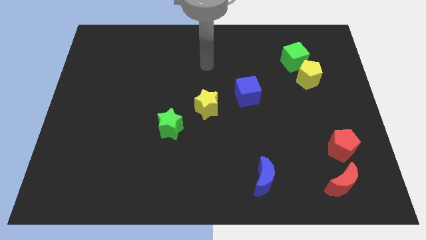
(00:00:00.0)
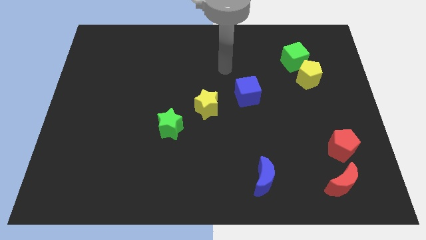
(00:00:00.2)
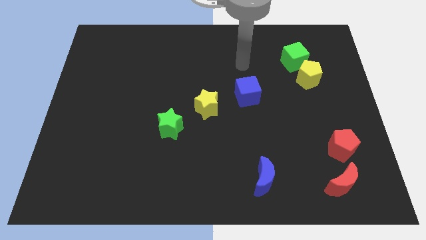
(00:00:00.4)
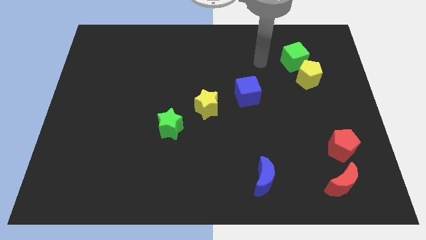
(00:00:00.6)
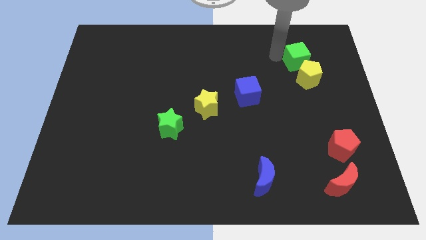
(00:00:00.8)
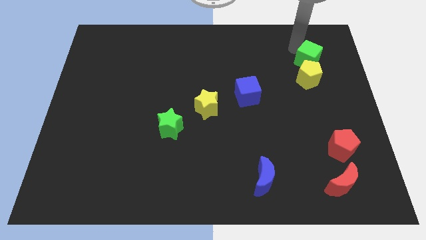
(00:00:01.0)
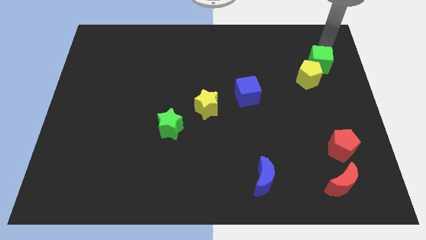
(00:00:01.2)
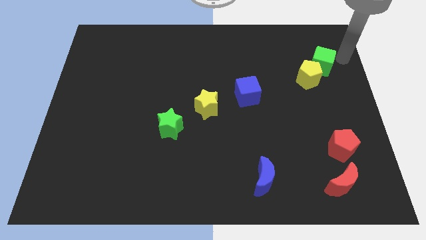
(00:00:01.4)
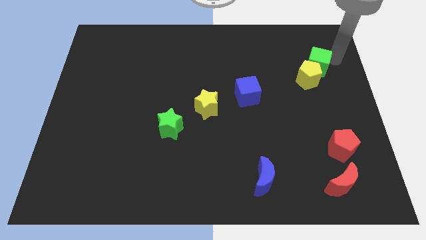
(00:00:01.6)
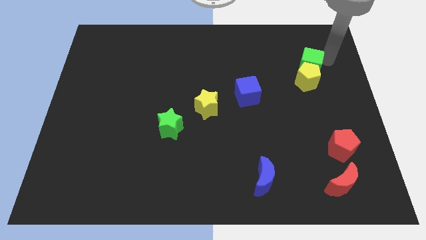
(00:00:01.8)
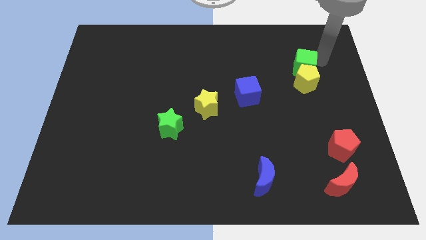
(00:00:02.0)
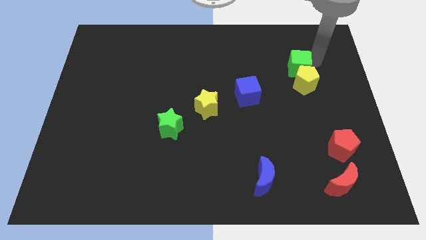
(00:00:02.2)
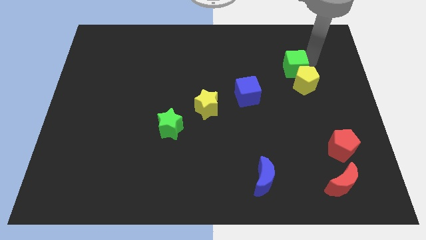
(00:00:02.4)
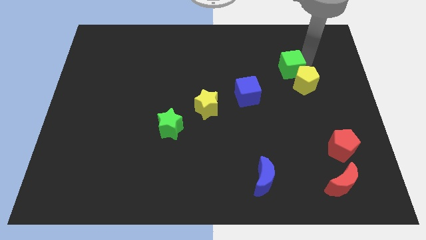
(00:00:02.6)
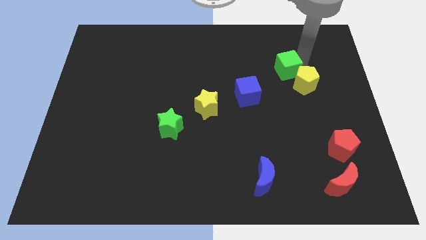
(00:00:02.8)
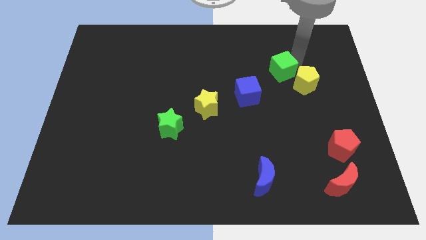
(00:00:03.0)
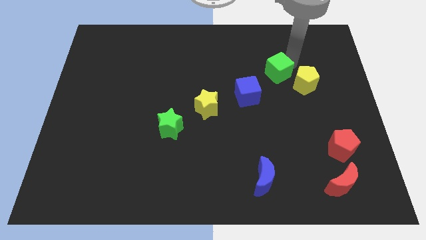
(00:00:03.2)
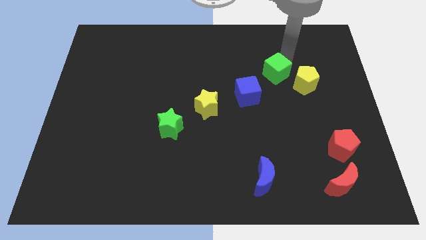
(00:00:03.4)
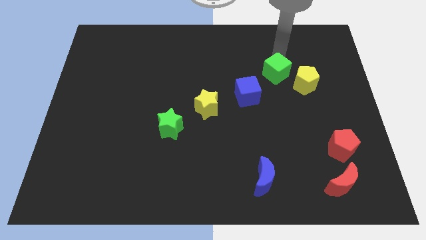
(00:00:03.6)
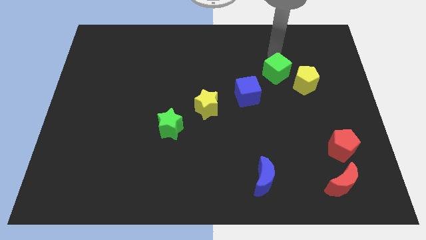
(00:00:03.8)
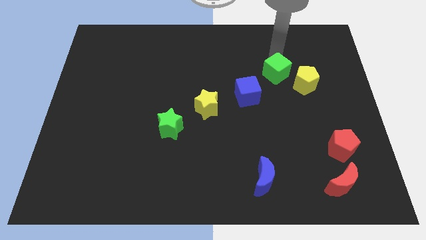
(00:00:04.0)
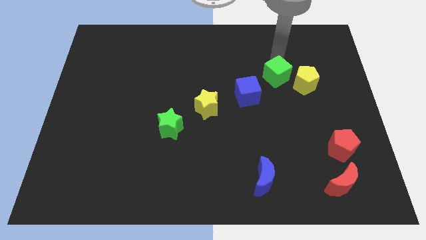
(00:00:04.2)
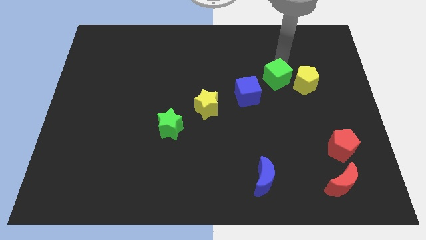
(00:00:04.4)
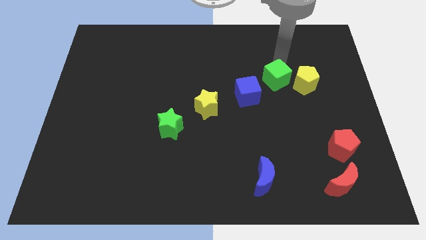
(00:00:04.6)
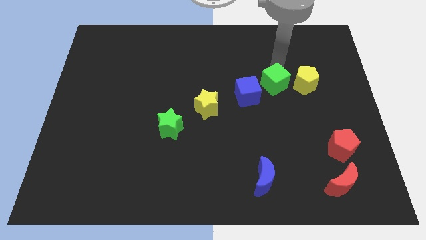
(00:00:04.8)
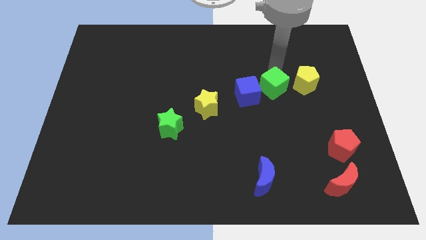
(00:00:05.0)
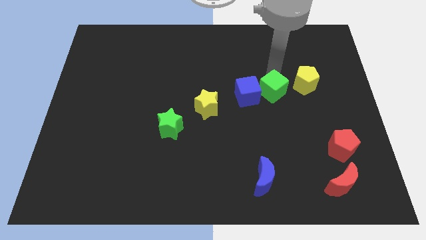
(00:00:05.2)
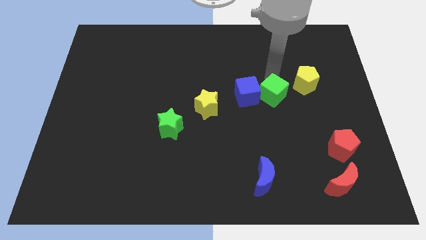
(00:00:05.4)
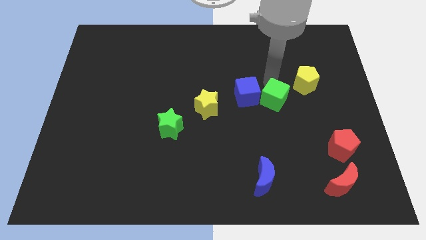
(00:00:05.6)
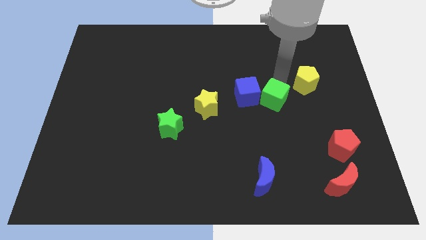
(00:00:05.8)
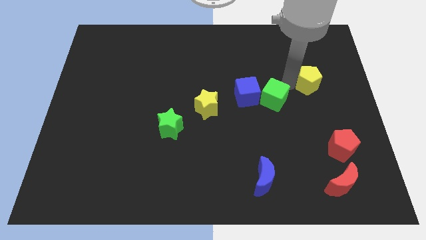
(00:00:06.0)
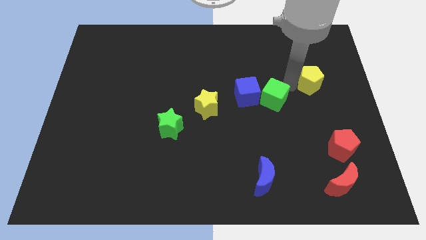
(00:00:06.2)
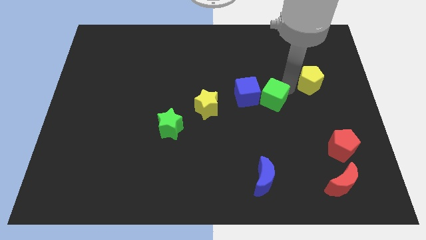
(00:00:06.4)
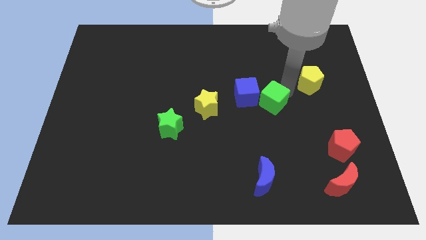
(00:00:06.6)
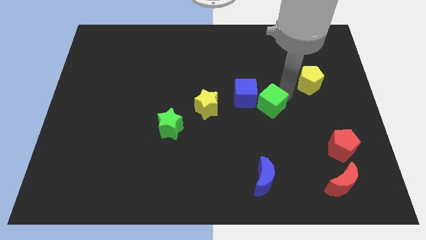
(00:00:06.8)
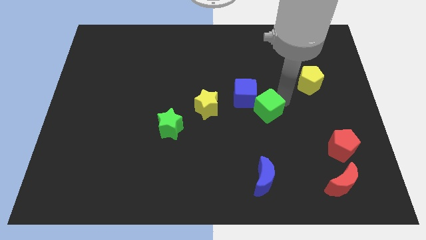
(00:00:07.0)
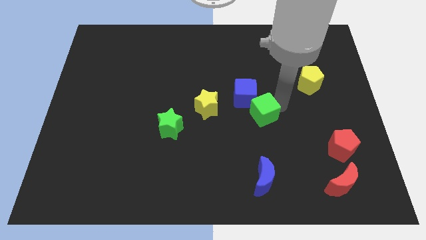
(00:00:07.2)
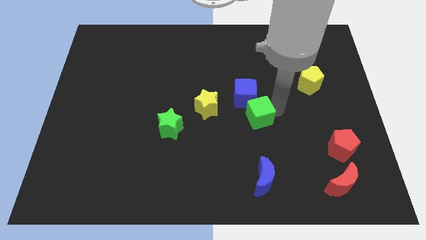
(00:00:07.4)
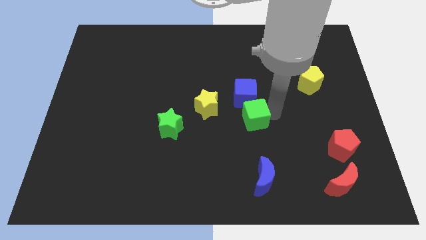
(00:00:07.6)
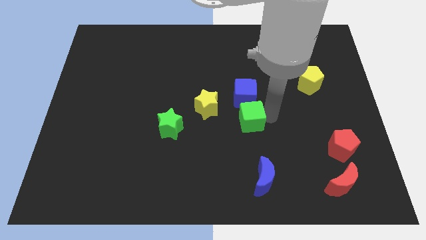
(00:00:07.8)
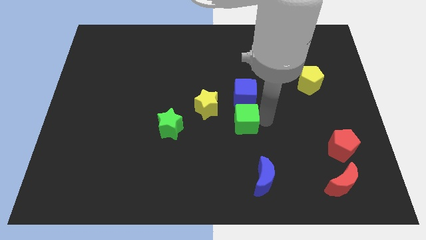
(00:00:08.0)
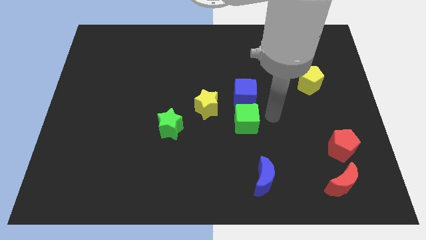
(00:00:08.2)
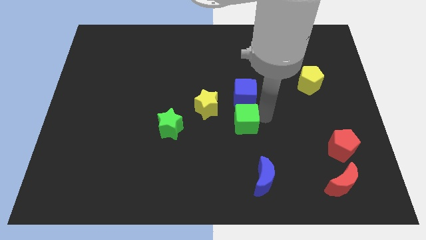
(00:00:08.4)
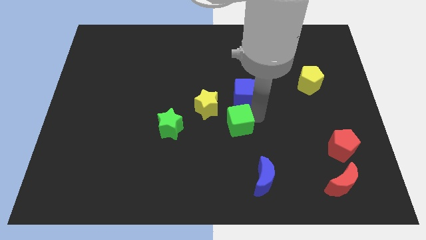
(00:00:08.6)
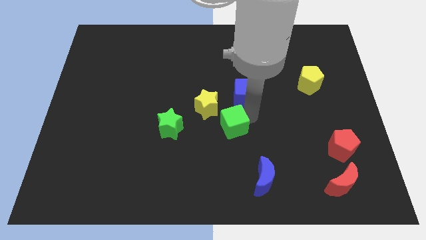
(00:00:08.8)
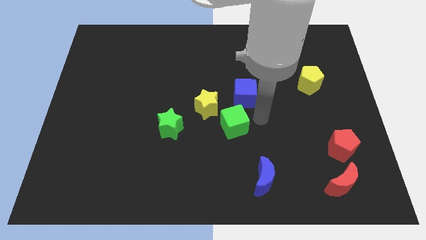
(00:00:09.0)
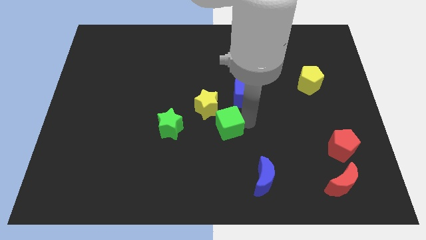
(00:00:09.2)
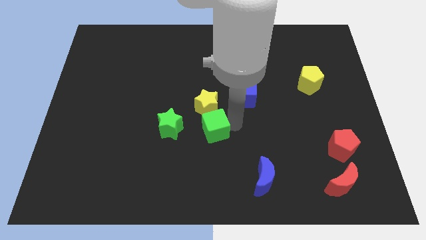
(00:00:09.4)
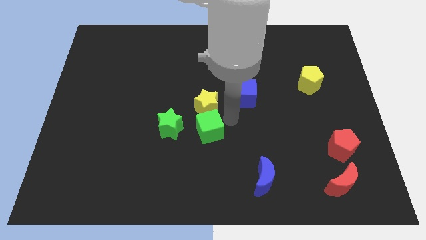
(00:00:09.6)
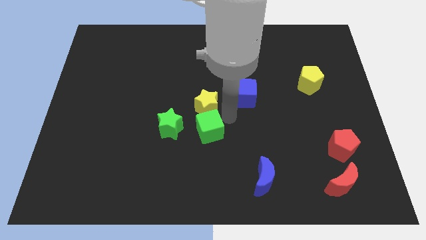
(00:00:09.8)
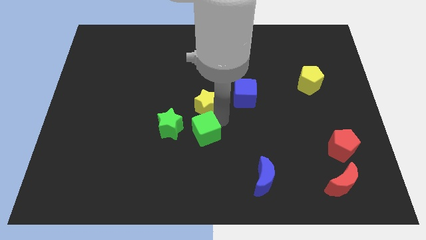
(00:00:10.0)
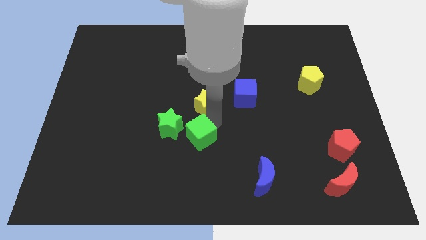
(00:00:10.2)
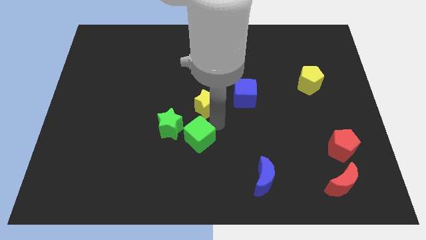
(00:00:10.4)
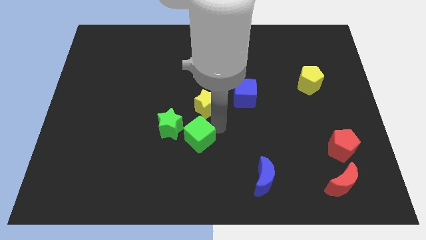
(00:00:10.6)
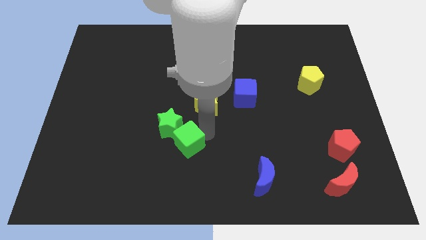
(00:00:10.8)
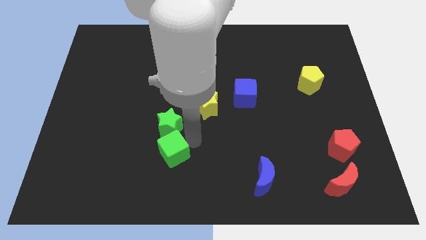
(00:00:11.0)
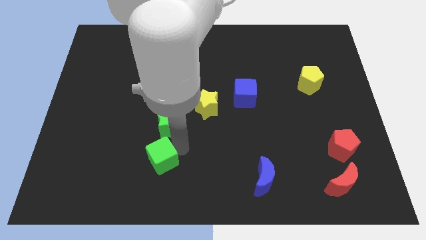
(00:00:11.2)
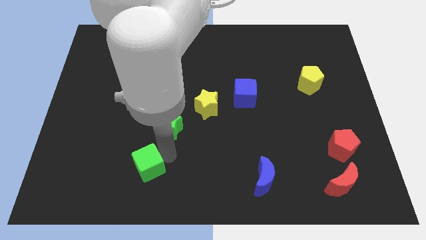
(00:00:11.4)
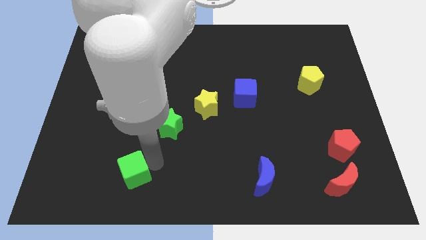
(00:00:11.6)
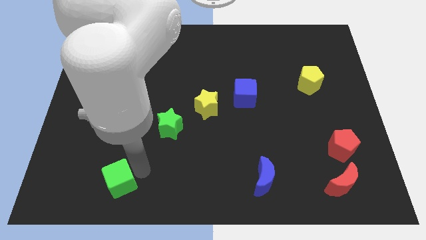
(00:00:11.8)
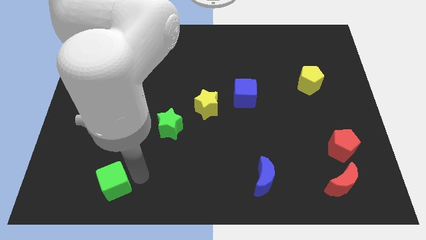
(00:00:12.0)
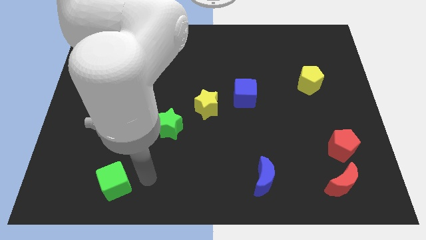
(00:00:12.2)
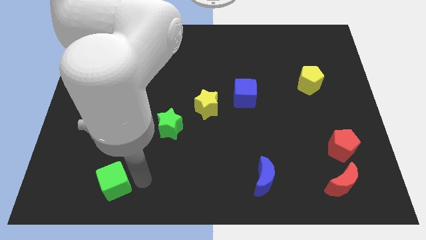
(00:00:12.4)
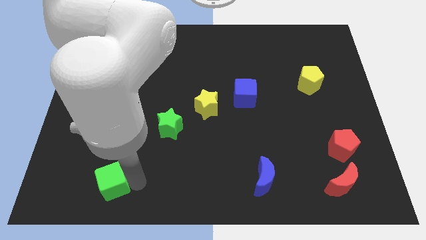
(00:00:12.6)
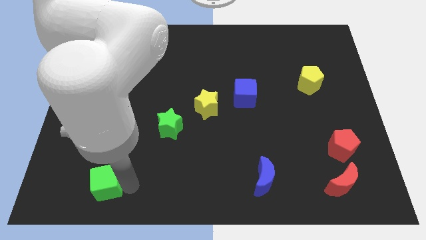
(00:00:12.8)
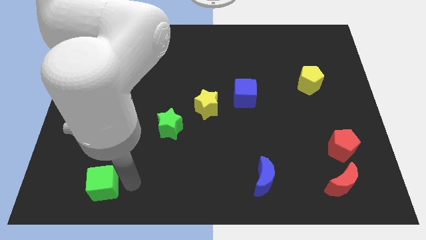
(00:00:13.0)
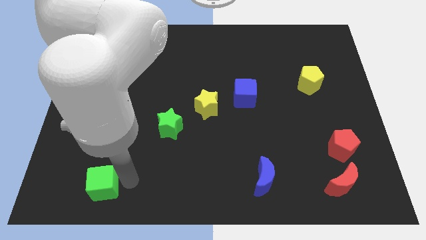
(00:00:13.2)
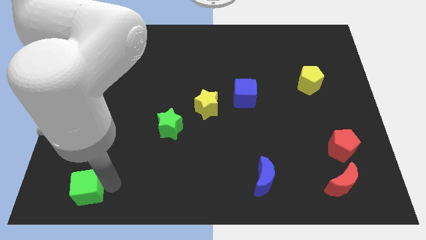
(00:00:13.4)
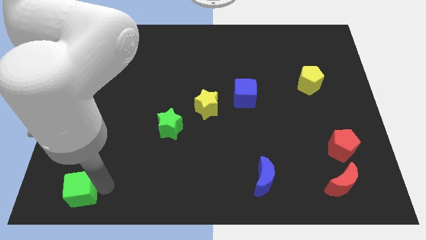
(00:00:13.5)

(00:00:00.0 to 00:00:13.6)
slide the green cube to the bottom left
